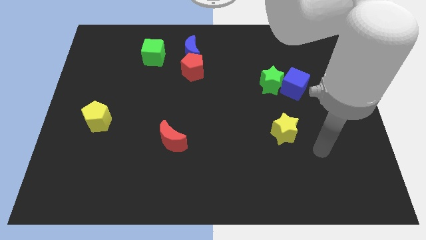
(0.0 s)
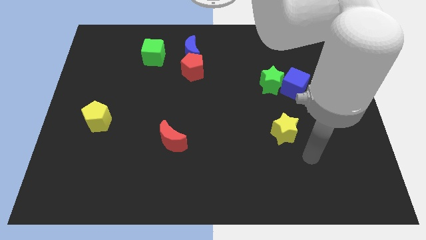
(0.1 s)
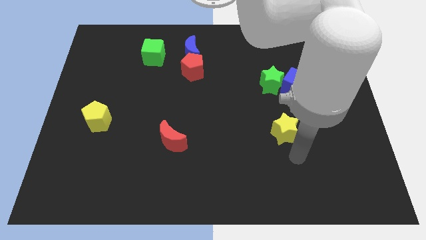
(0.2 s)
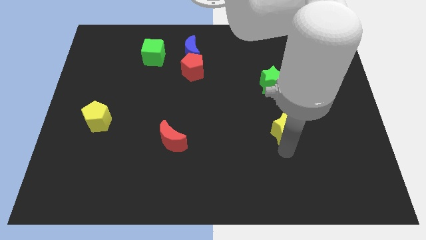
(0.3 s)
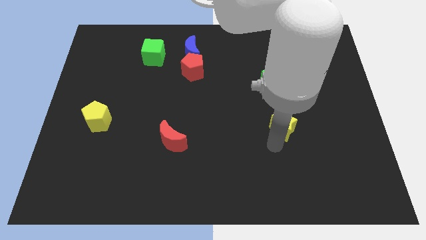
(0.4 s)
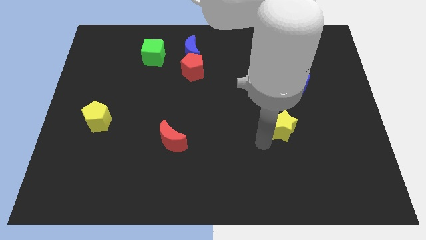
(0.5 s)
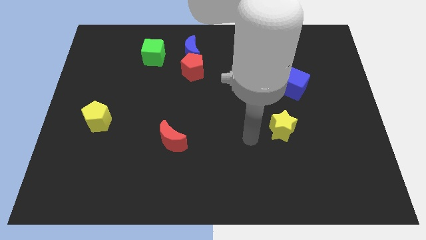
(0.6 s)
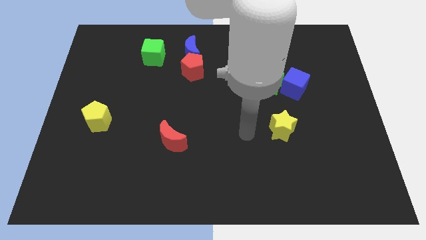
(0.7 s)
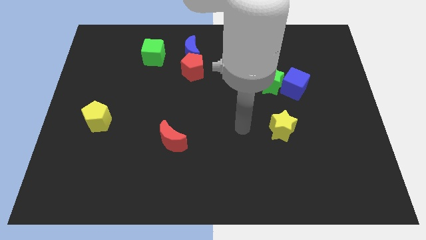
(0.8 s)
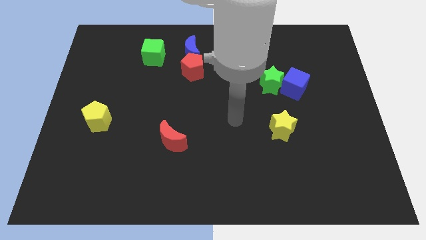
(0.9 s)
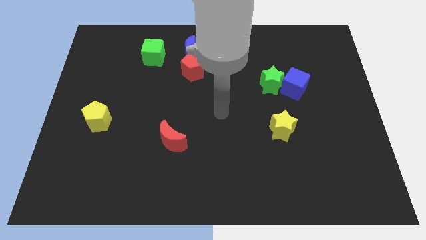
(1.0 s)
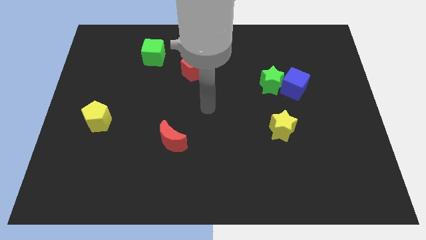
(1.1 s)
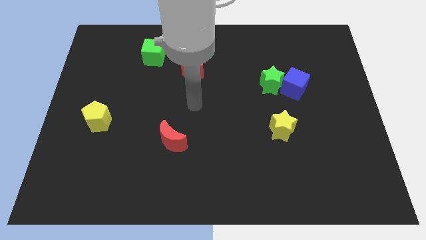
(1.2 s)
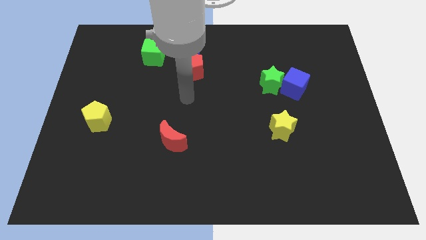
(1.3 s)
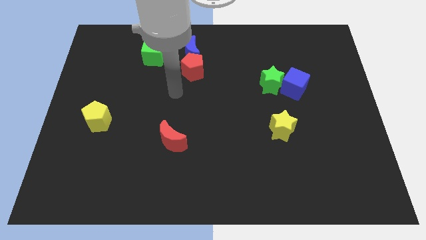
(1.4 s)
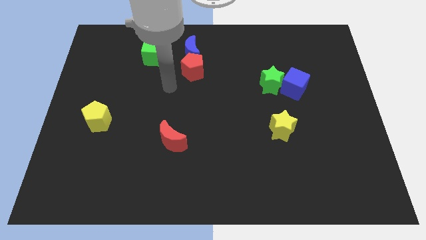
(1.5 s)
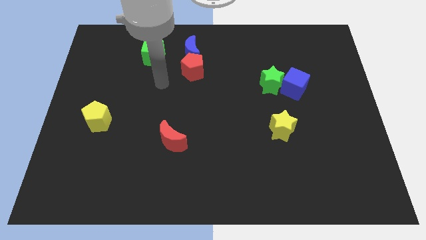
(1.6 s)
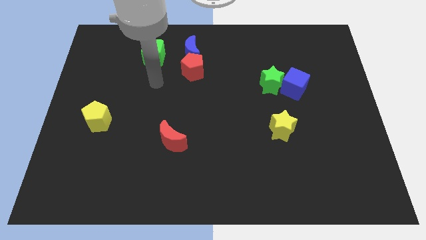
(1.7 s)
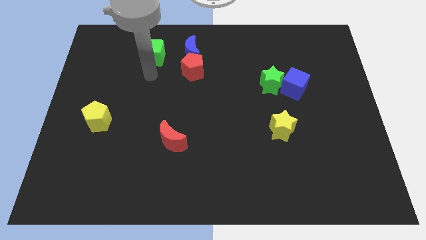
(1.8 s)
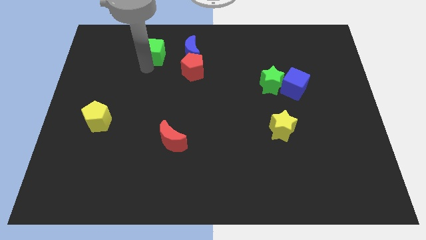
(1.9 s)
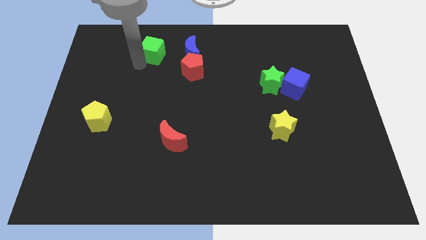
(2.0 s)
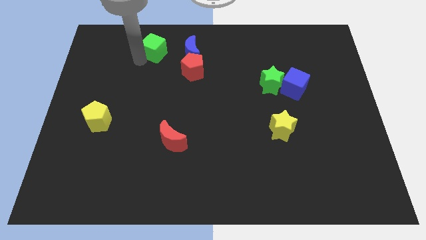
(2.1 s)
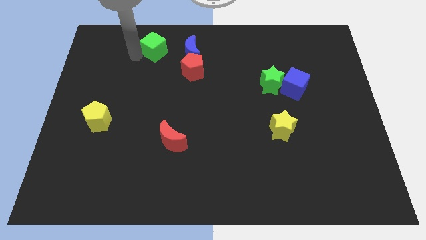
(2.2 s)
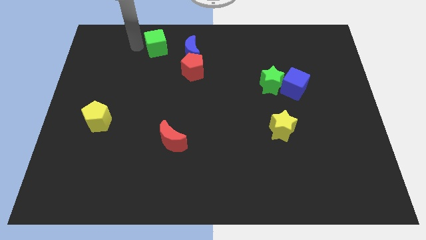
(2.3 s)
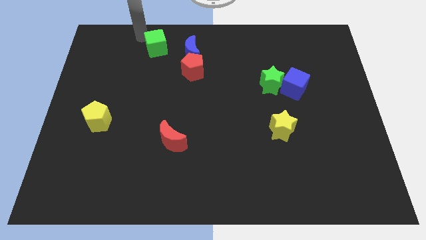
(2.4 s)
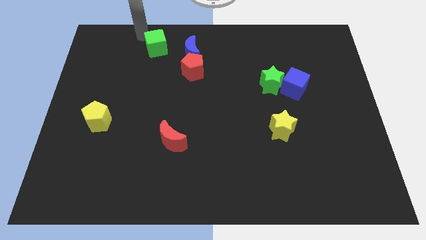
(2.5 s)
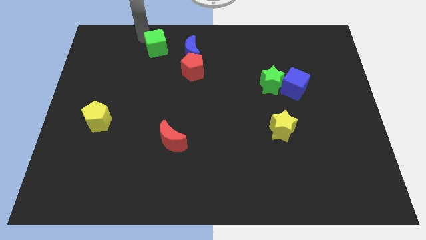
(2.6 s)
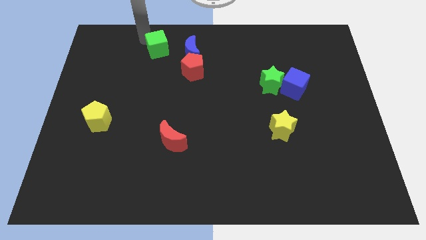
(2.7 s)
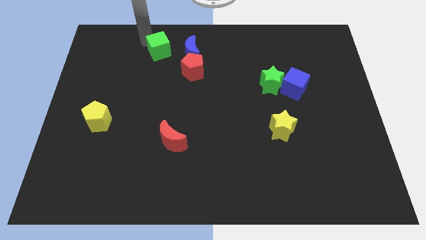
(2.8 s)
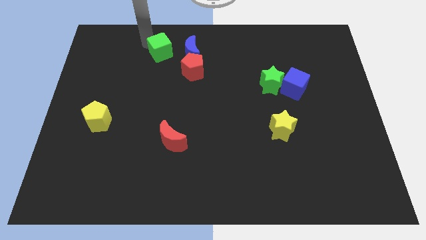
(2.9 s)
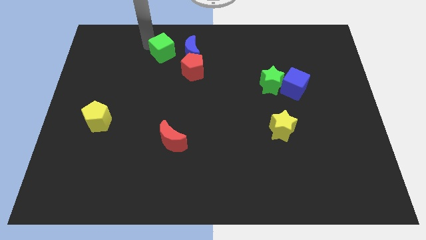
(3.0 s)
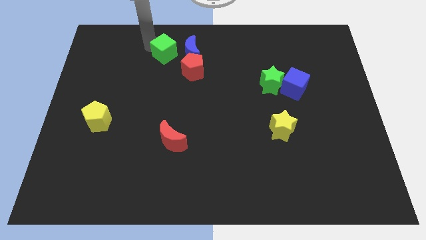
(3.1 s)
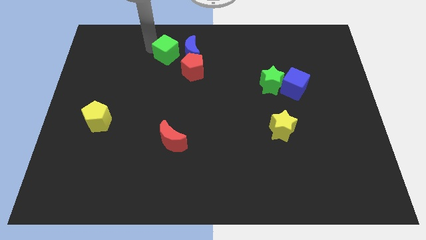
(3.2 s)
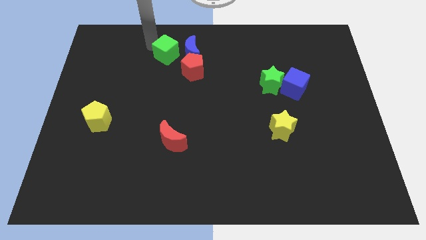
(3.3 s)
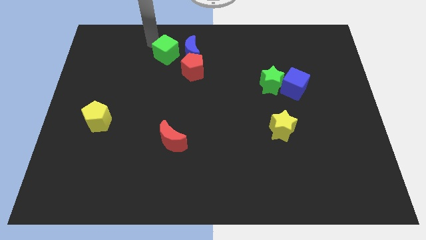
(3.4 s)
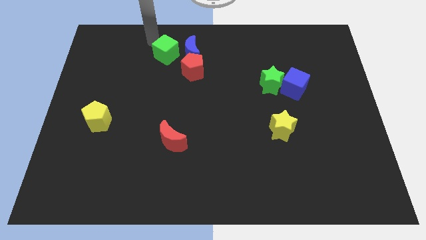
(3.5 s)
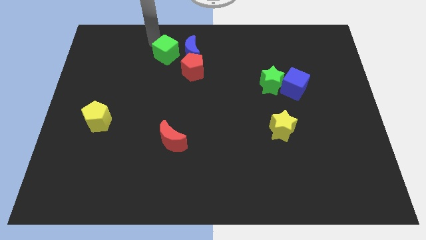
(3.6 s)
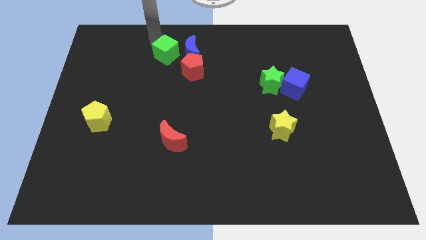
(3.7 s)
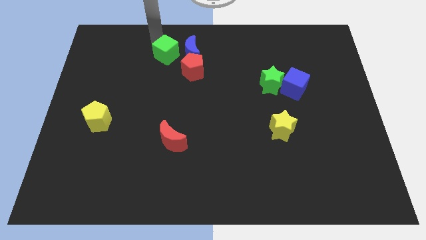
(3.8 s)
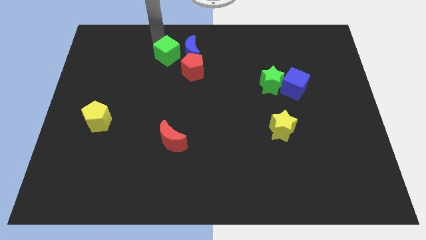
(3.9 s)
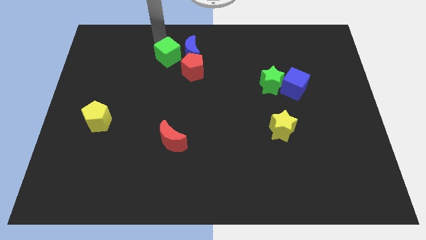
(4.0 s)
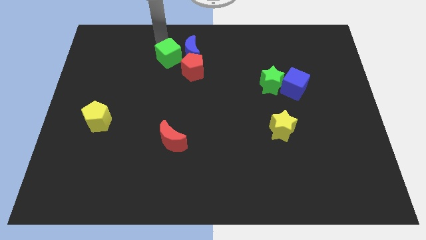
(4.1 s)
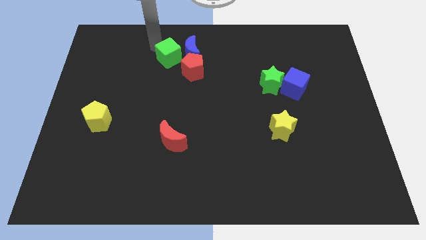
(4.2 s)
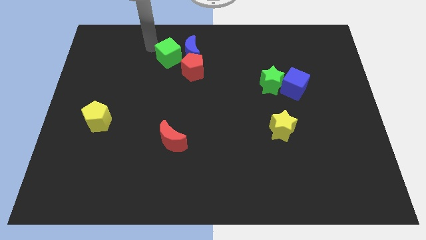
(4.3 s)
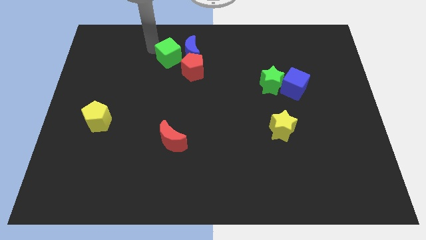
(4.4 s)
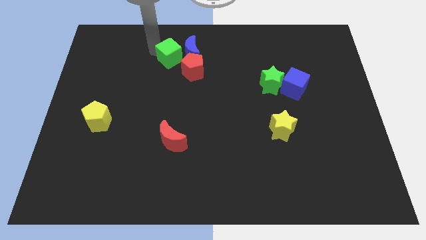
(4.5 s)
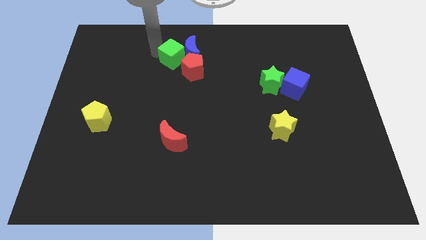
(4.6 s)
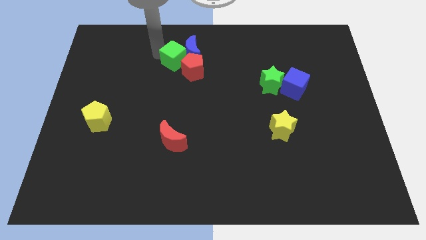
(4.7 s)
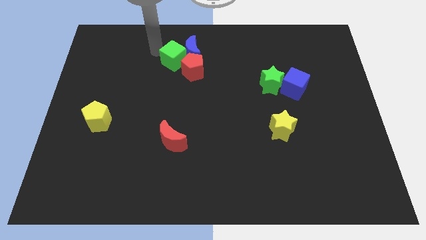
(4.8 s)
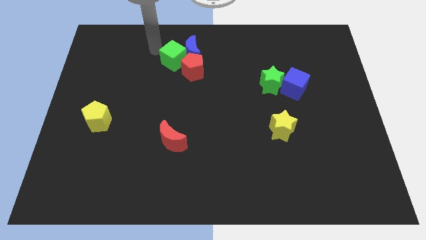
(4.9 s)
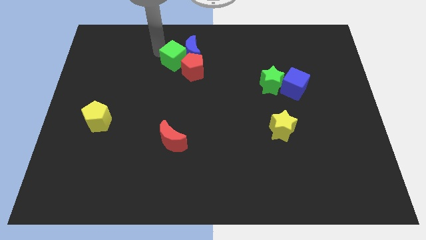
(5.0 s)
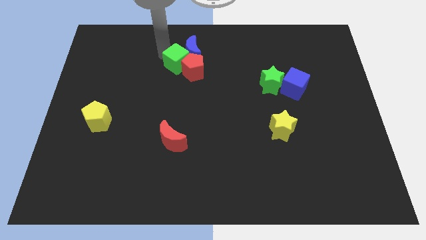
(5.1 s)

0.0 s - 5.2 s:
move the green cube next to the red pentagon

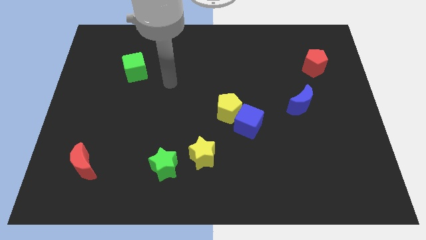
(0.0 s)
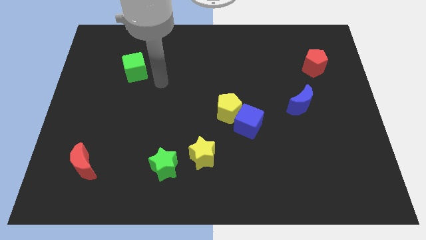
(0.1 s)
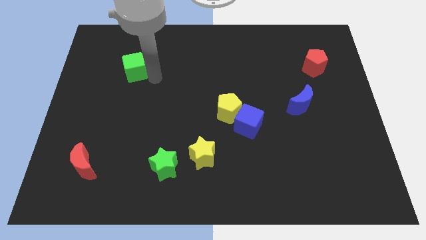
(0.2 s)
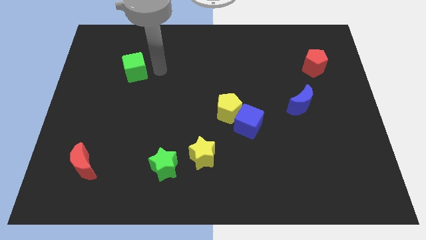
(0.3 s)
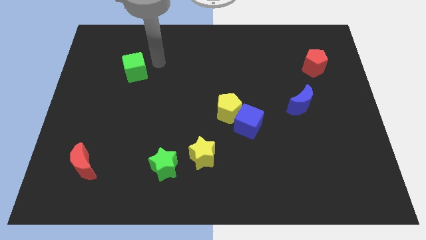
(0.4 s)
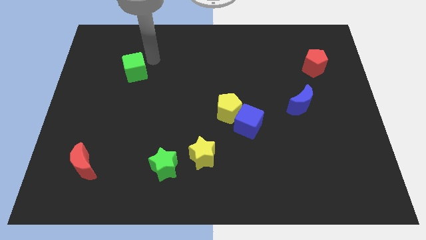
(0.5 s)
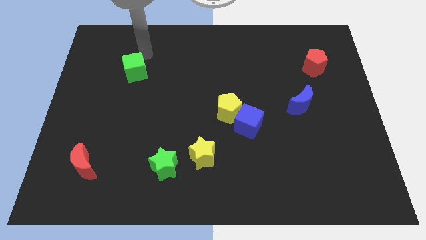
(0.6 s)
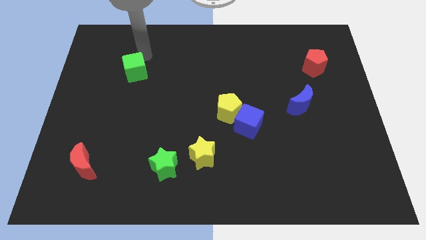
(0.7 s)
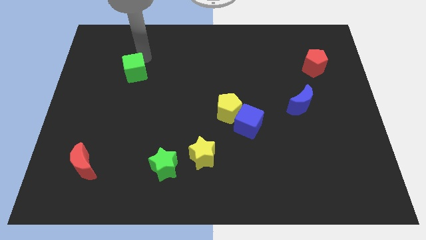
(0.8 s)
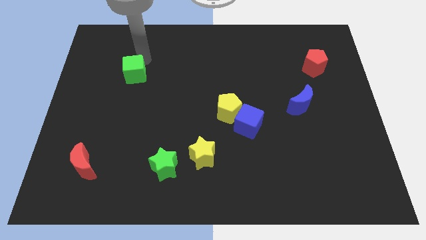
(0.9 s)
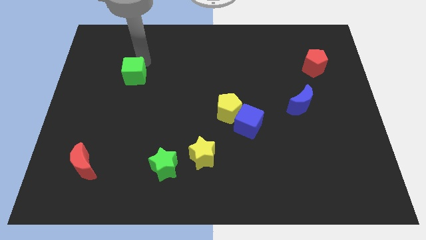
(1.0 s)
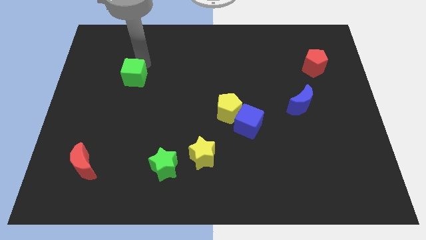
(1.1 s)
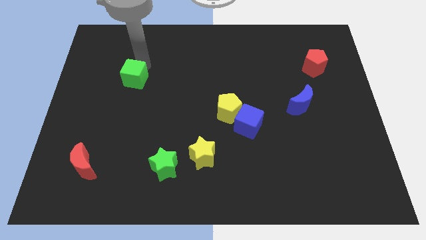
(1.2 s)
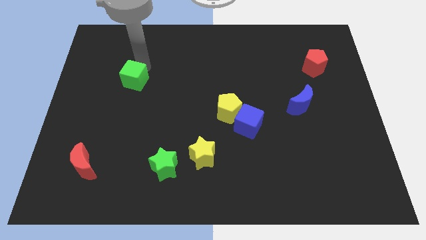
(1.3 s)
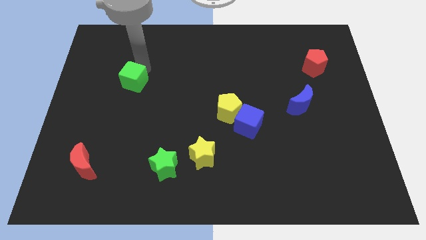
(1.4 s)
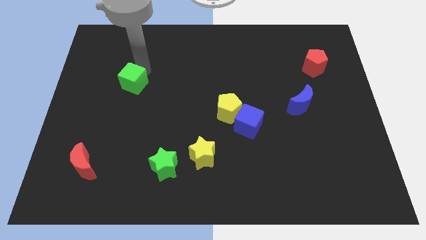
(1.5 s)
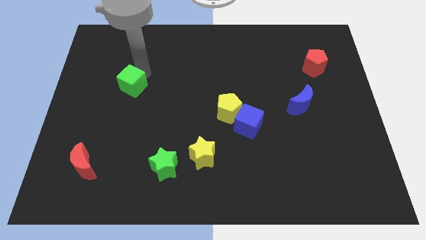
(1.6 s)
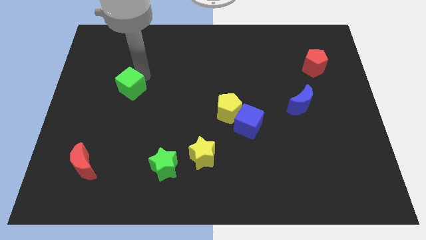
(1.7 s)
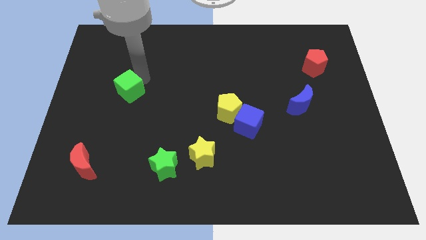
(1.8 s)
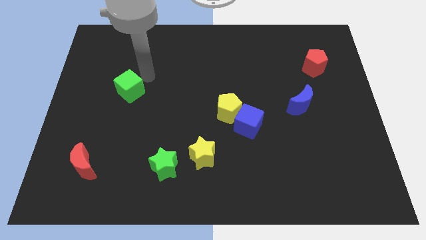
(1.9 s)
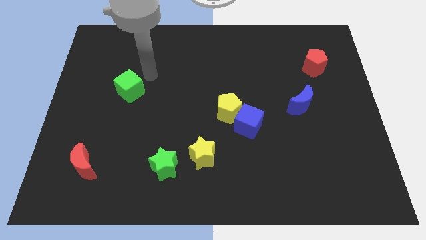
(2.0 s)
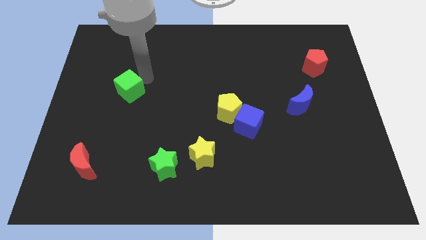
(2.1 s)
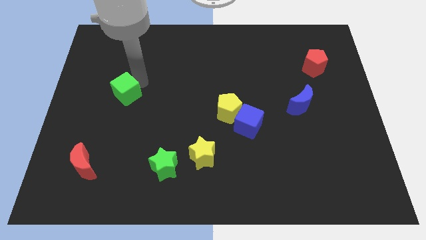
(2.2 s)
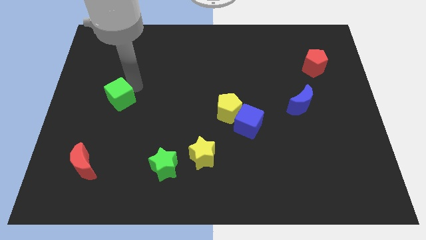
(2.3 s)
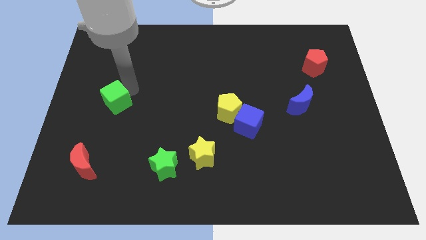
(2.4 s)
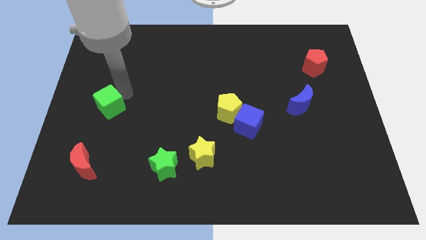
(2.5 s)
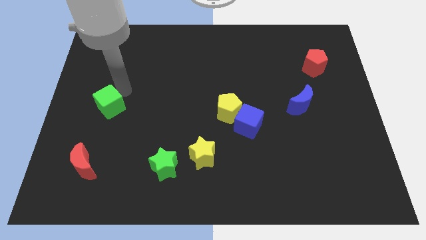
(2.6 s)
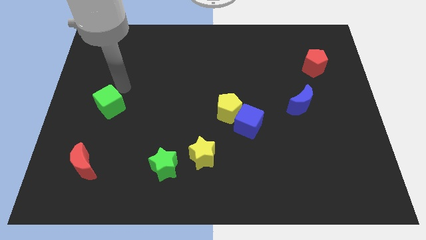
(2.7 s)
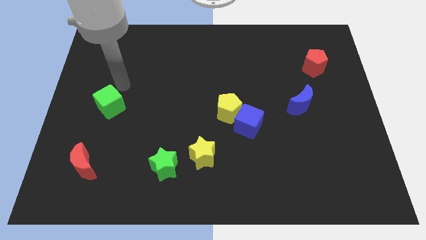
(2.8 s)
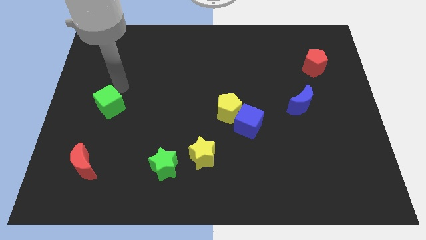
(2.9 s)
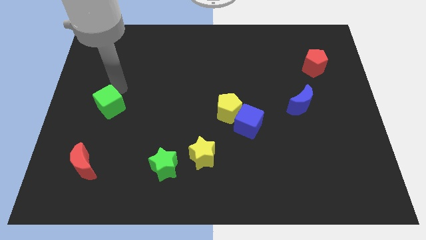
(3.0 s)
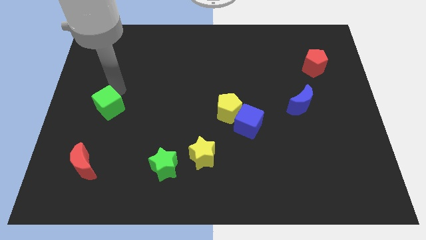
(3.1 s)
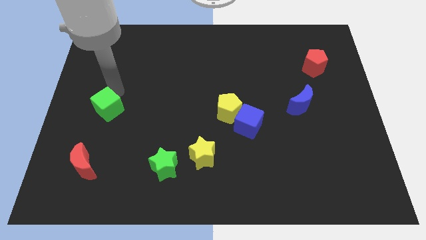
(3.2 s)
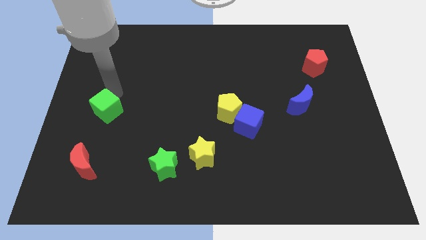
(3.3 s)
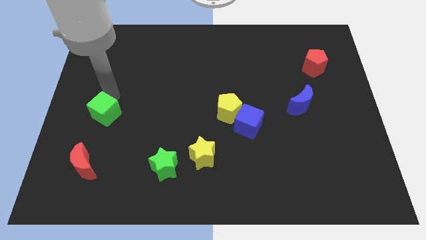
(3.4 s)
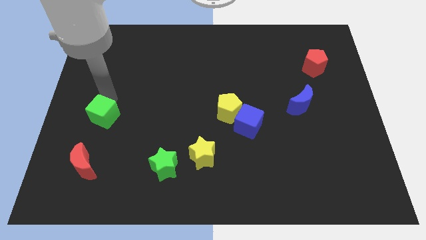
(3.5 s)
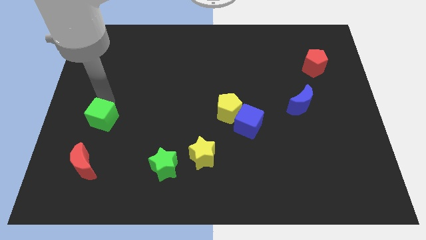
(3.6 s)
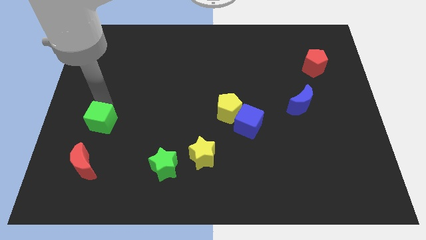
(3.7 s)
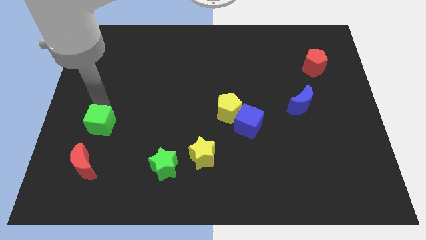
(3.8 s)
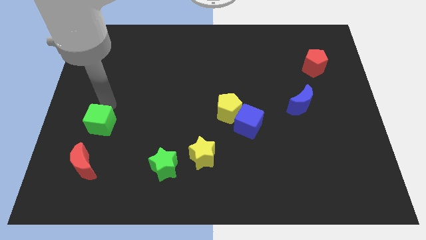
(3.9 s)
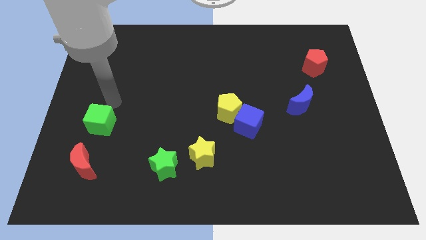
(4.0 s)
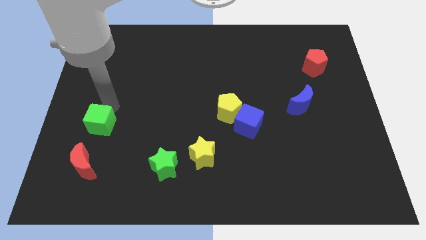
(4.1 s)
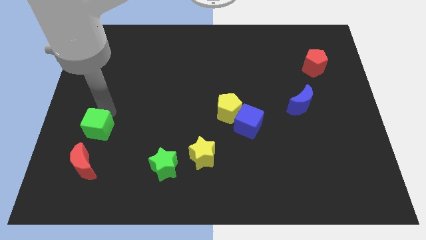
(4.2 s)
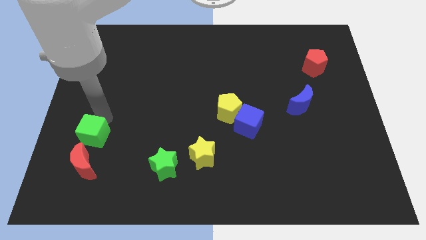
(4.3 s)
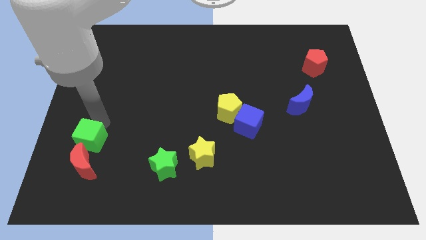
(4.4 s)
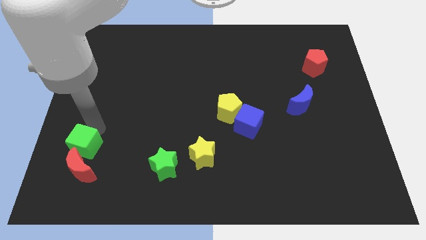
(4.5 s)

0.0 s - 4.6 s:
push the green cube next to the red moon
